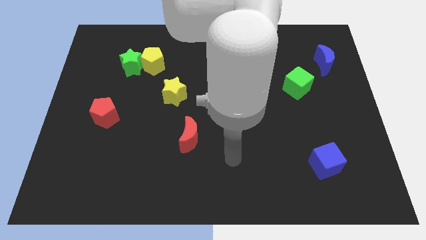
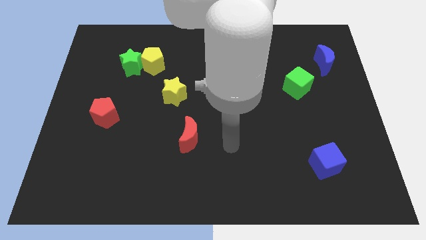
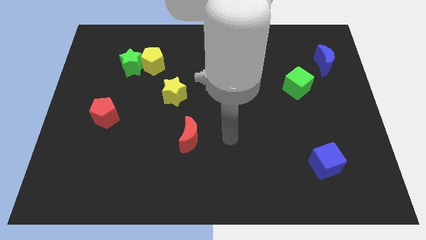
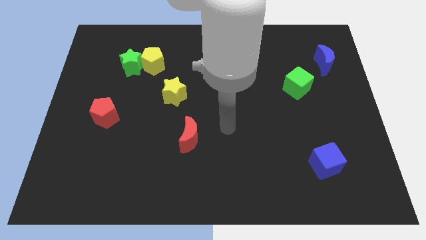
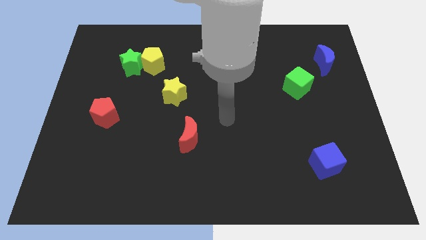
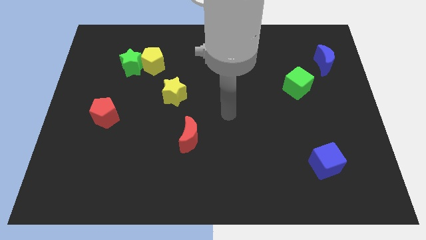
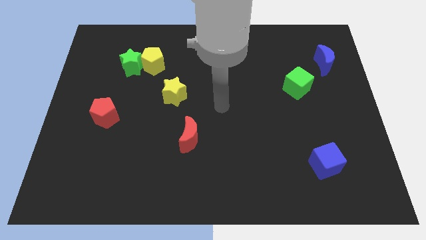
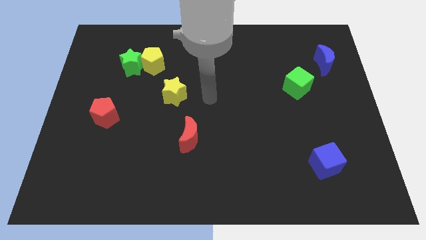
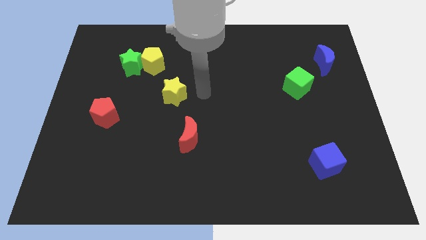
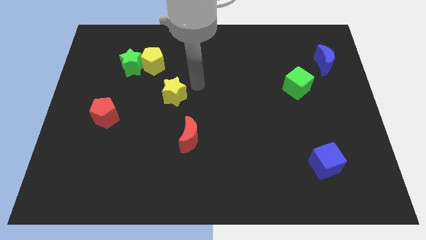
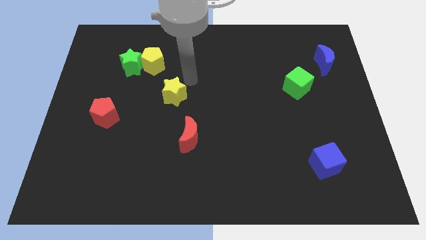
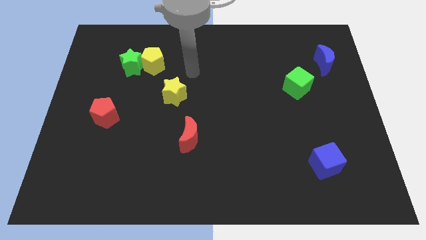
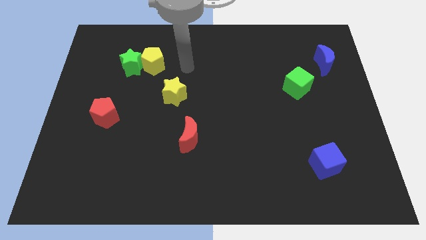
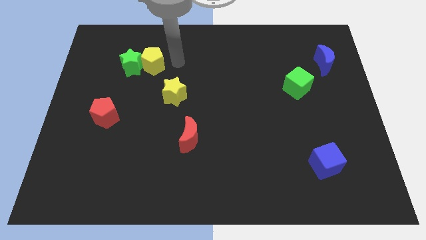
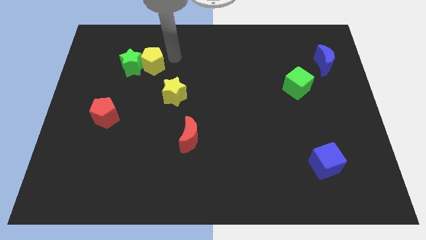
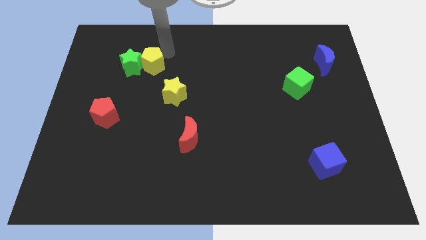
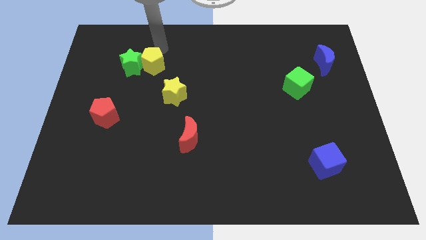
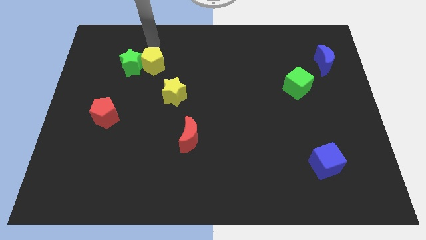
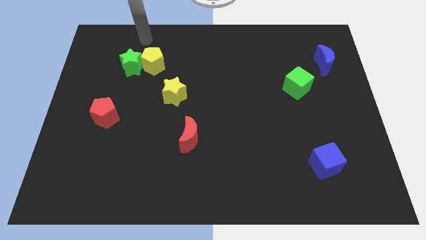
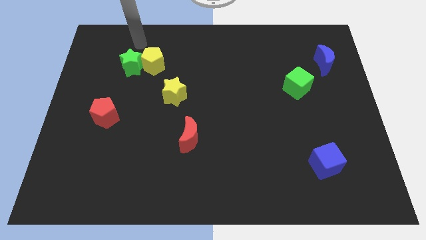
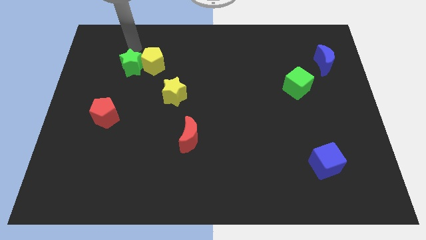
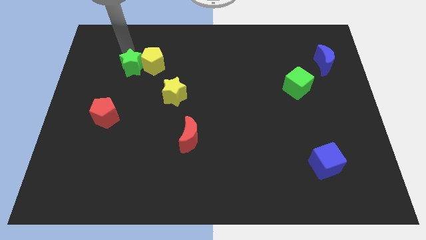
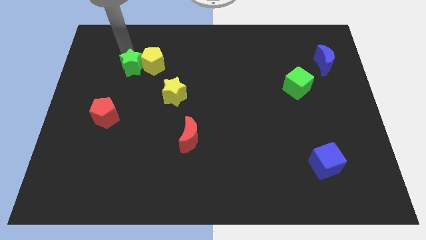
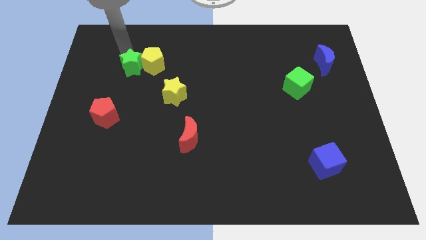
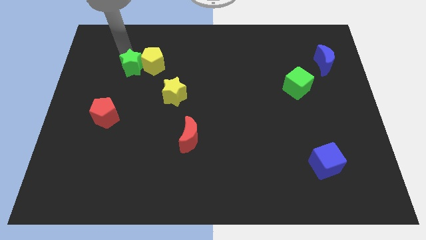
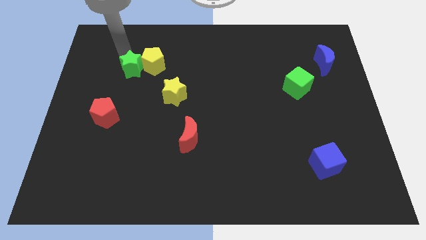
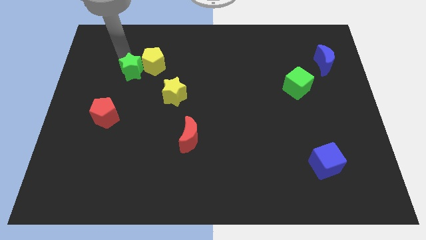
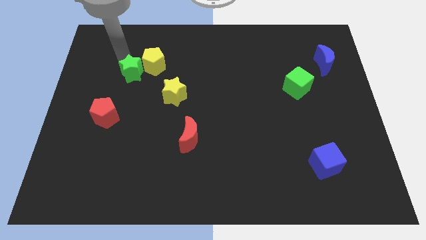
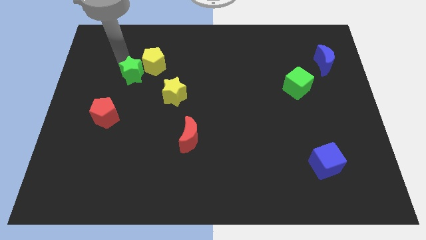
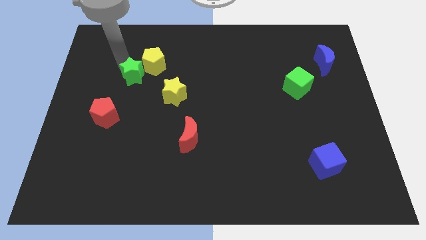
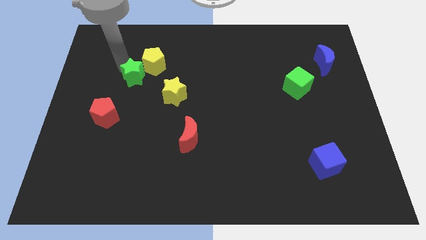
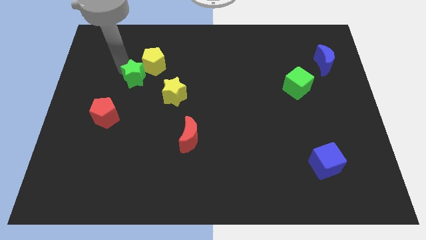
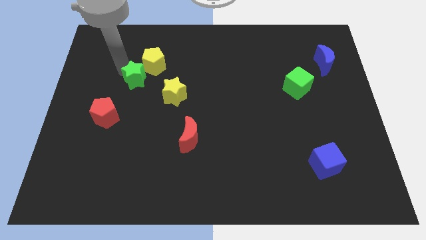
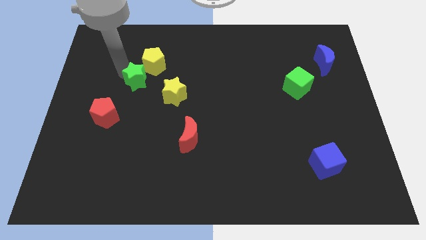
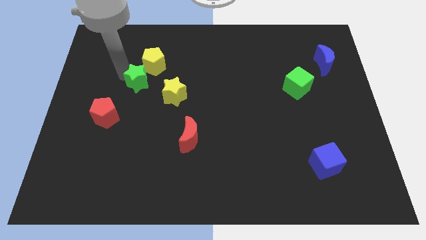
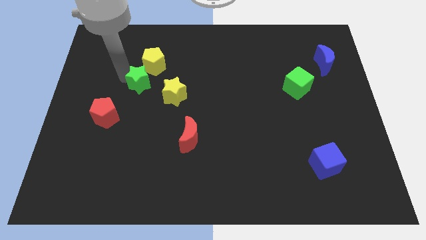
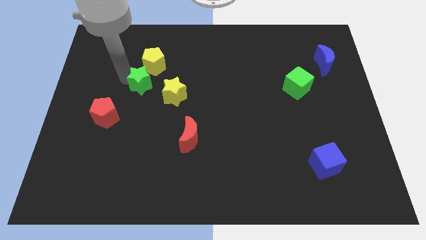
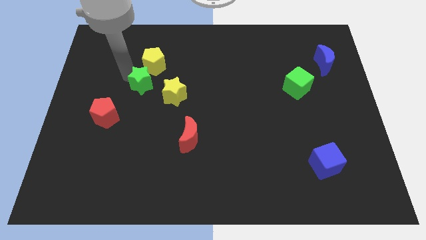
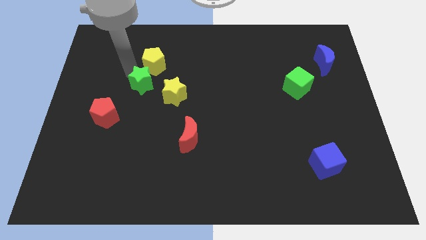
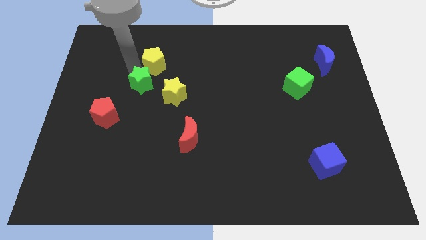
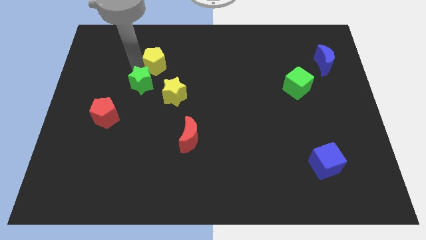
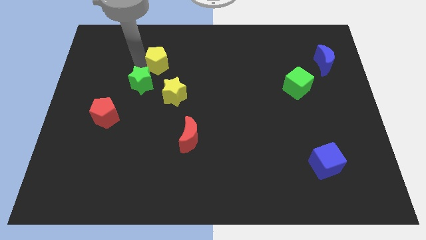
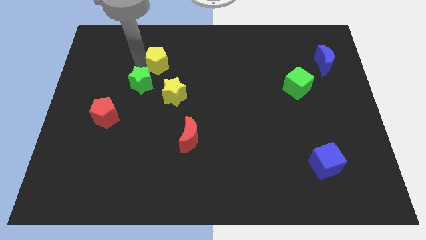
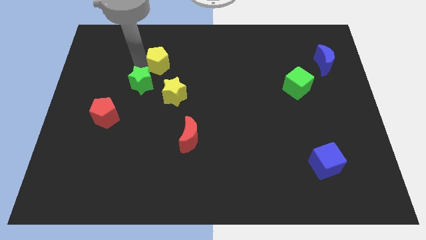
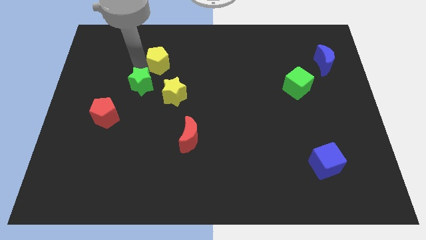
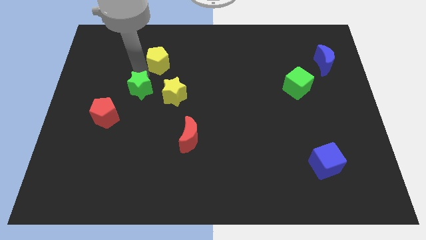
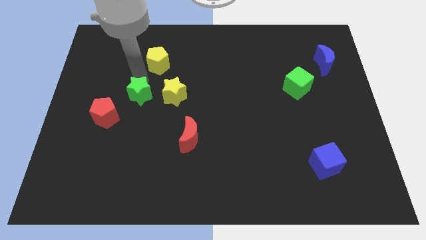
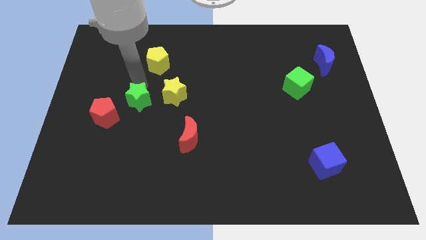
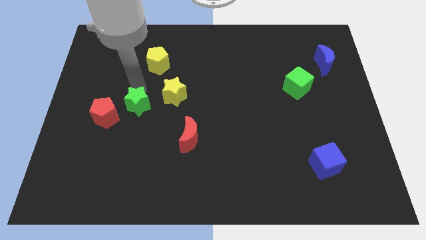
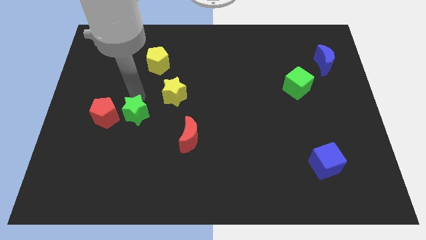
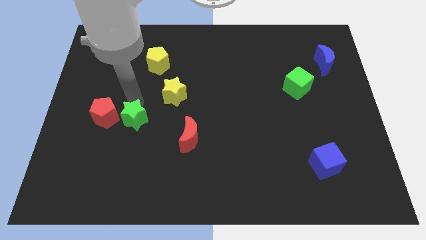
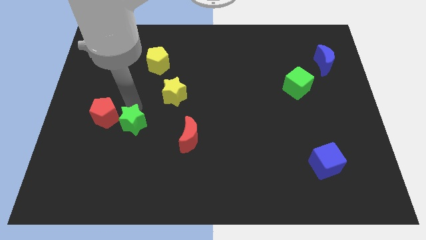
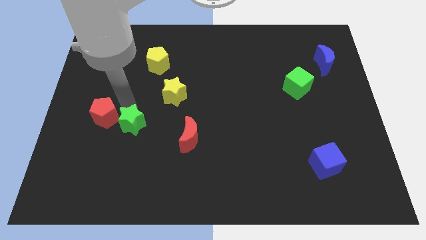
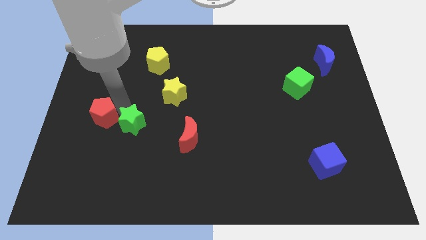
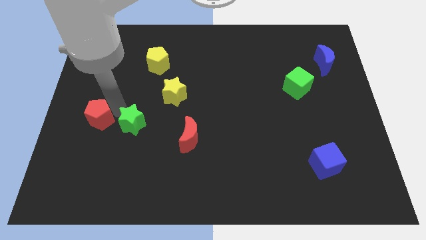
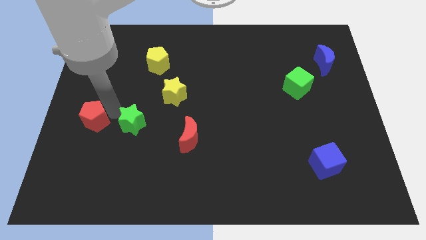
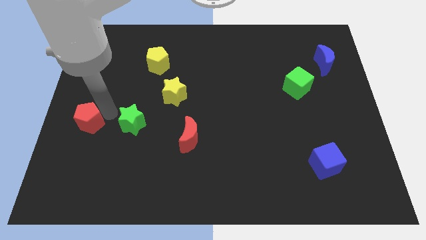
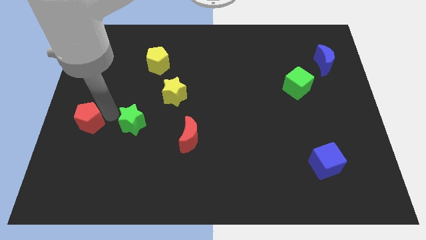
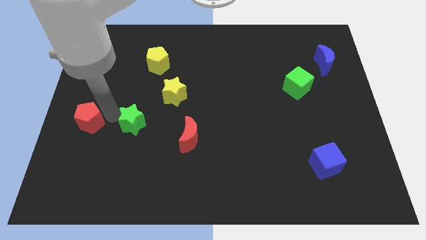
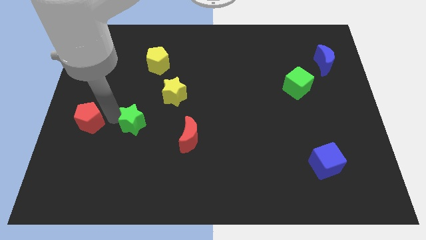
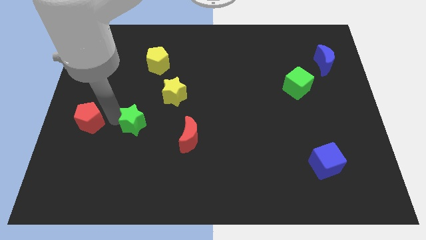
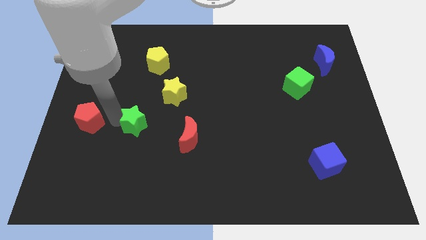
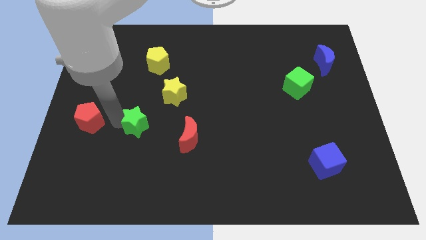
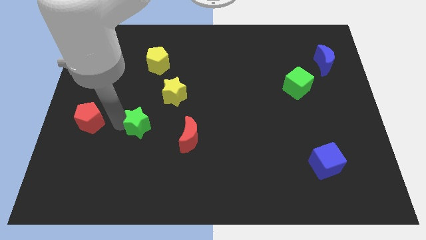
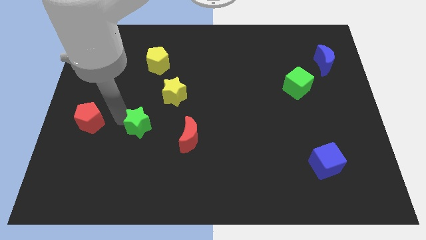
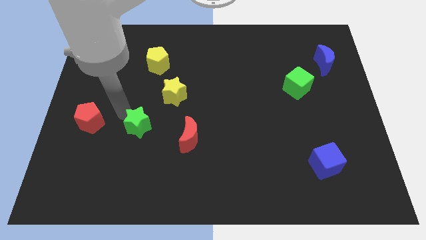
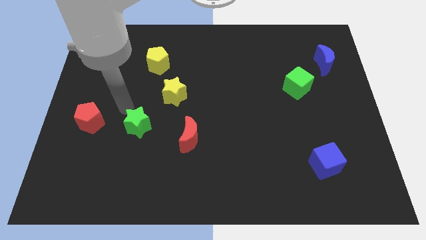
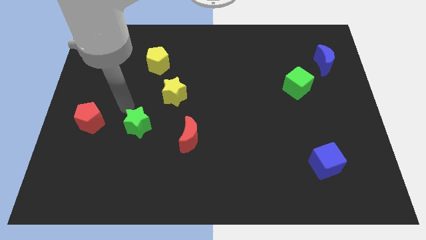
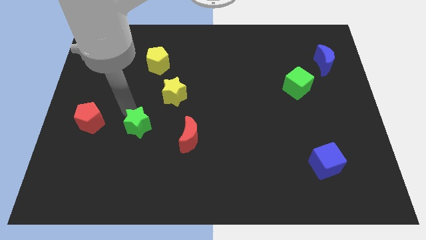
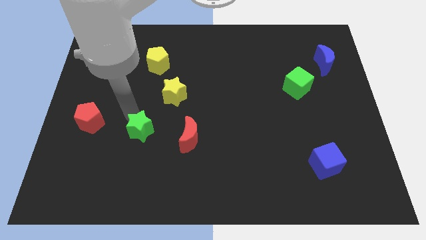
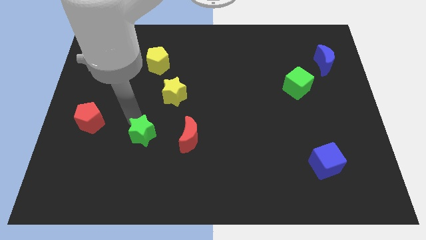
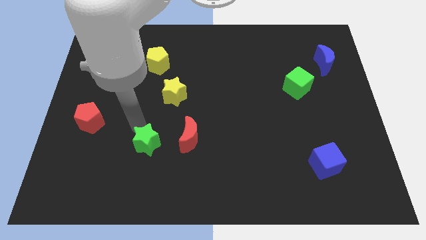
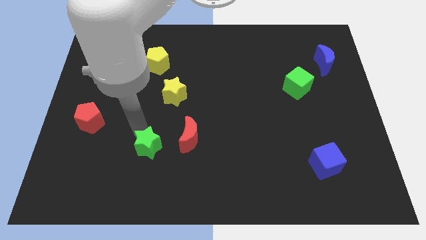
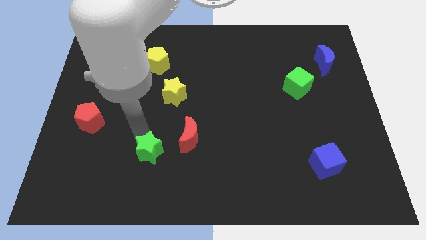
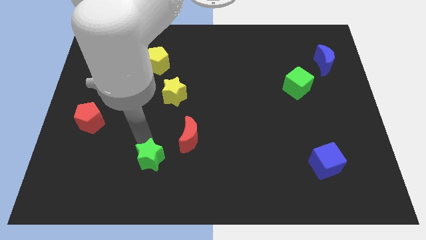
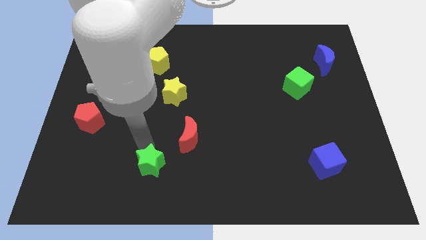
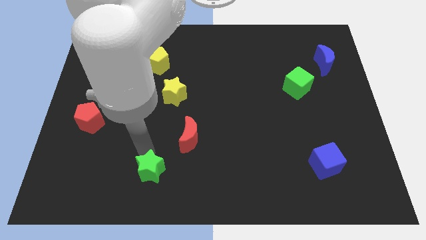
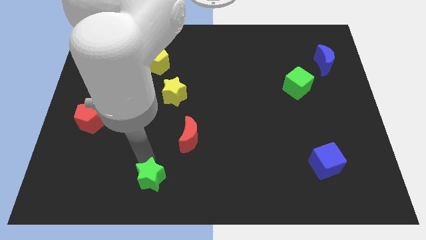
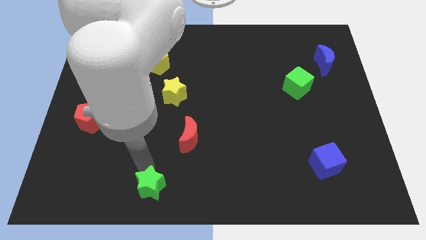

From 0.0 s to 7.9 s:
push the green star to the bottom
